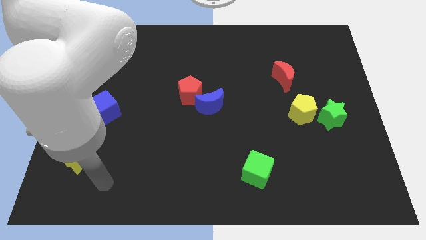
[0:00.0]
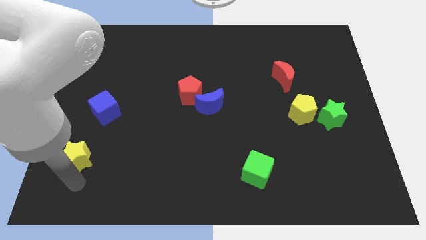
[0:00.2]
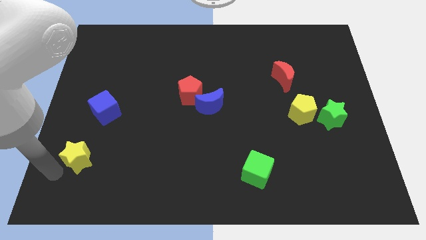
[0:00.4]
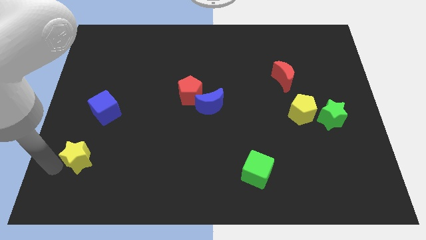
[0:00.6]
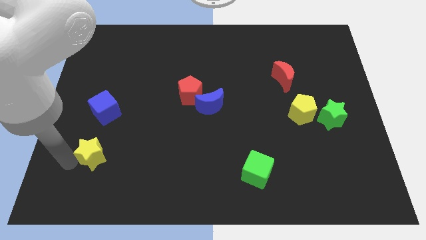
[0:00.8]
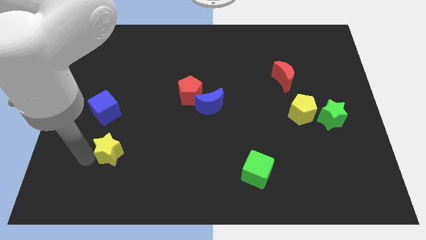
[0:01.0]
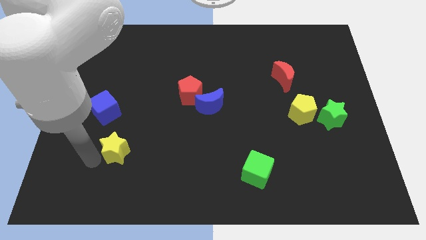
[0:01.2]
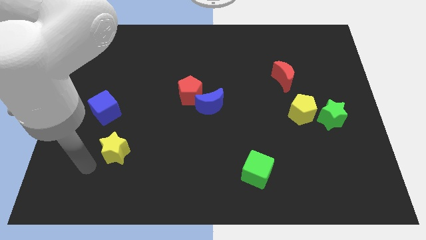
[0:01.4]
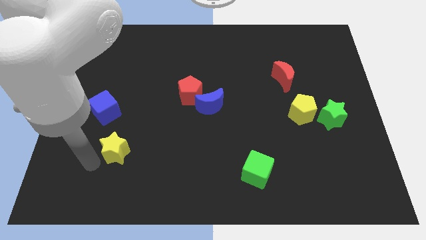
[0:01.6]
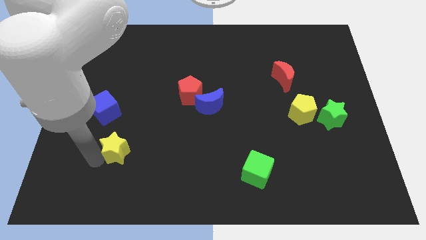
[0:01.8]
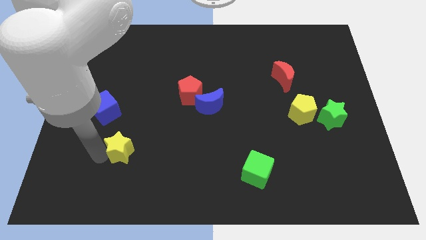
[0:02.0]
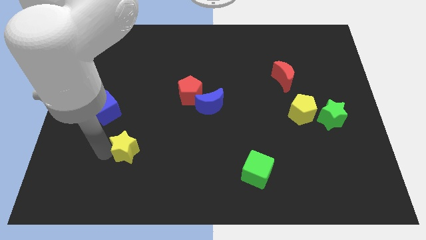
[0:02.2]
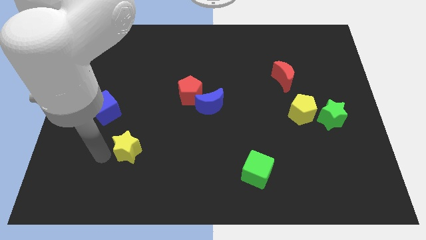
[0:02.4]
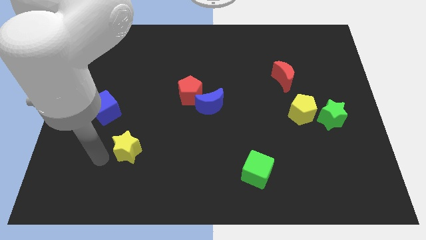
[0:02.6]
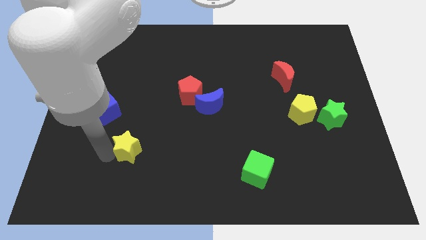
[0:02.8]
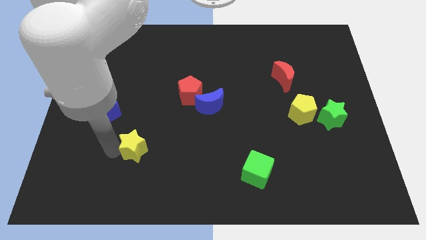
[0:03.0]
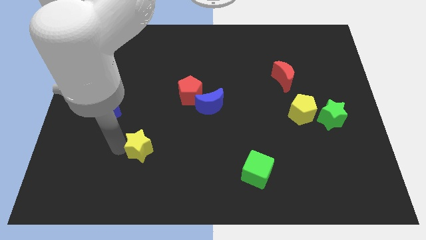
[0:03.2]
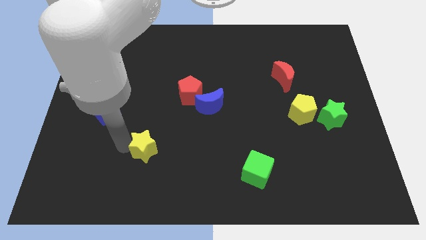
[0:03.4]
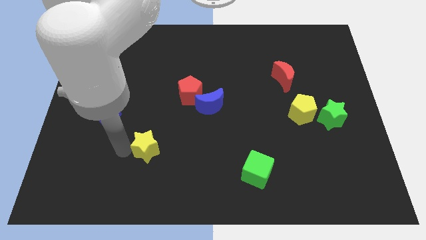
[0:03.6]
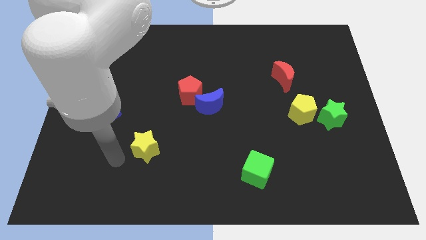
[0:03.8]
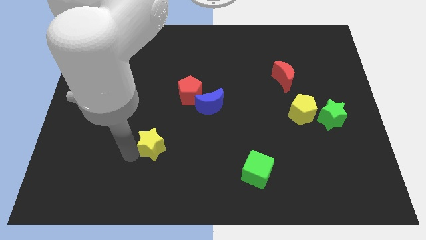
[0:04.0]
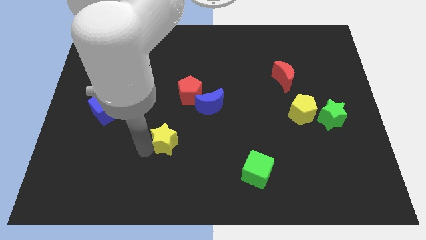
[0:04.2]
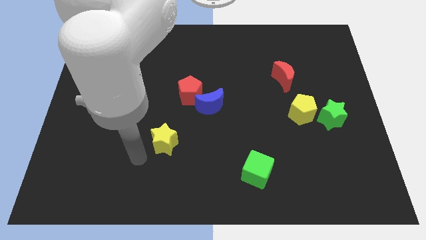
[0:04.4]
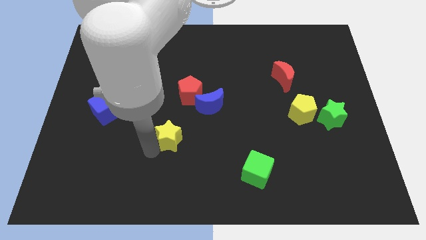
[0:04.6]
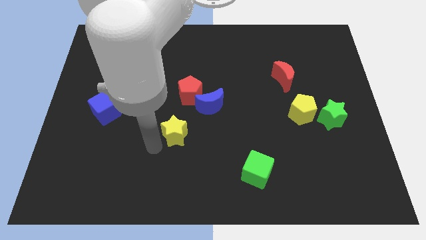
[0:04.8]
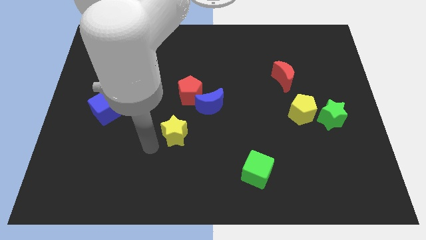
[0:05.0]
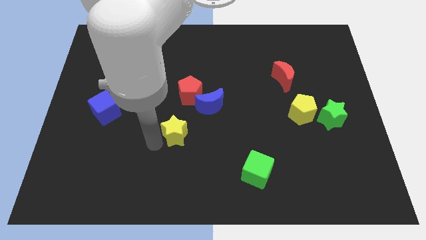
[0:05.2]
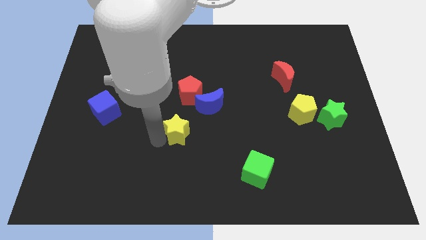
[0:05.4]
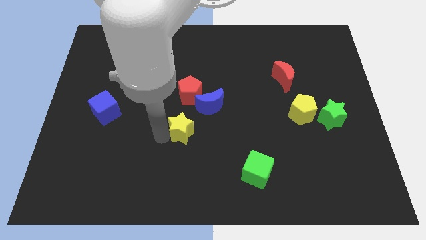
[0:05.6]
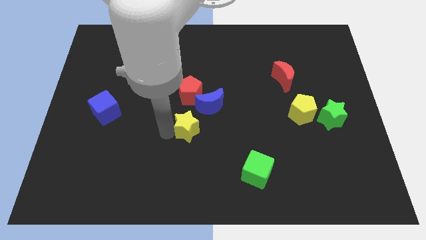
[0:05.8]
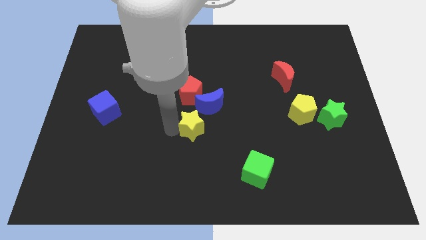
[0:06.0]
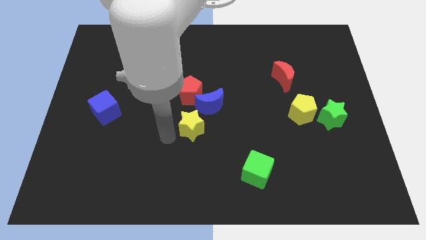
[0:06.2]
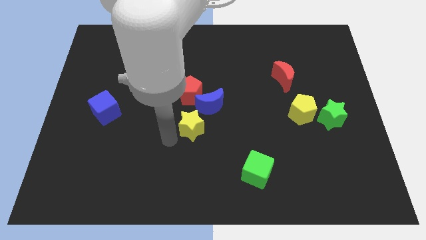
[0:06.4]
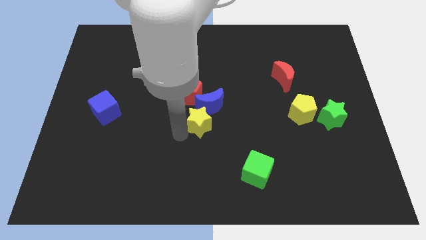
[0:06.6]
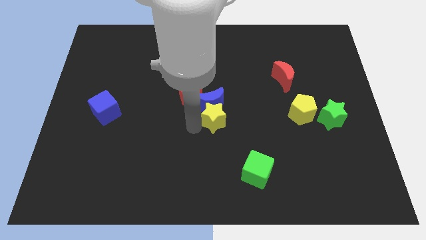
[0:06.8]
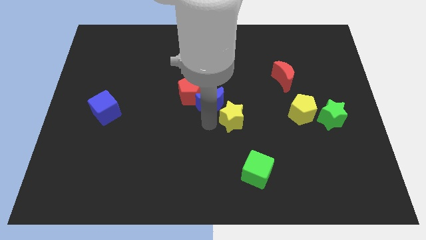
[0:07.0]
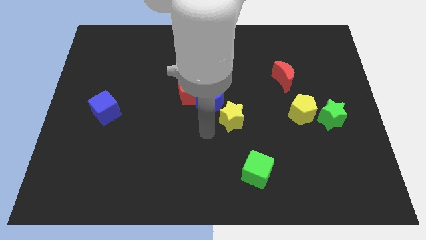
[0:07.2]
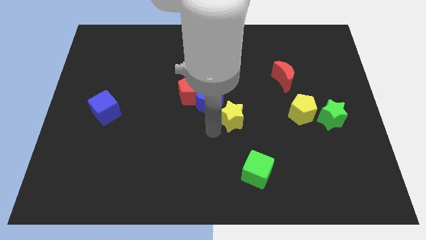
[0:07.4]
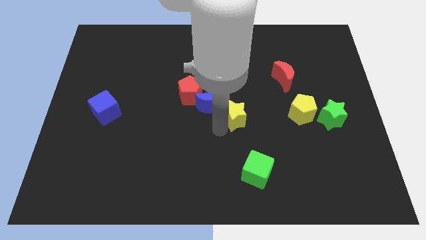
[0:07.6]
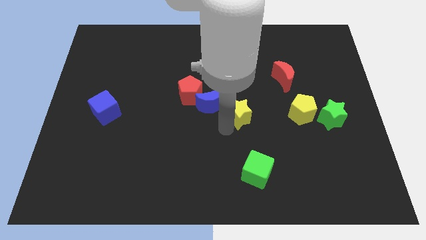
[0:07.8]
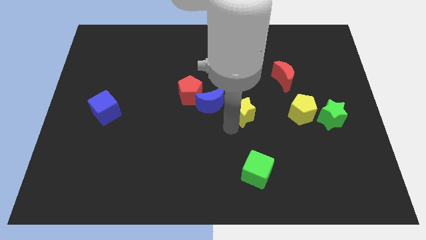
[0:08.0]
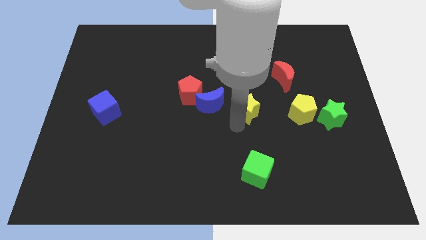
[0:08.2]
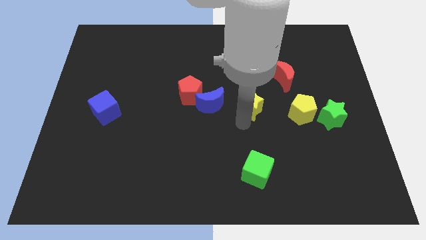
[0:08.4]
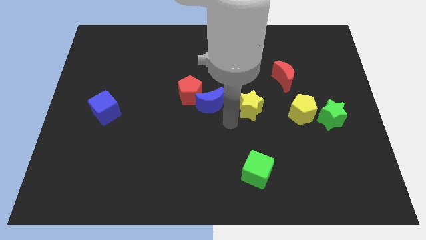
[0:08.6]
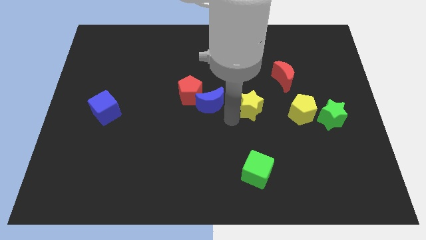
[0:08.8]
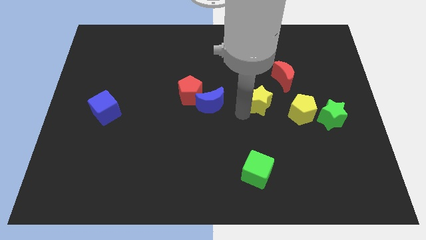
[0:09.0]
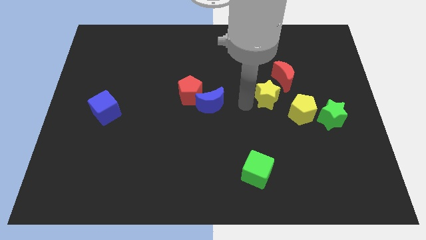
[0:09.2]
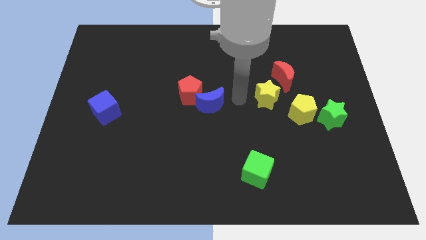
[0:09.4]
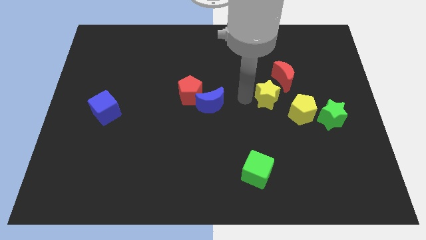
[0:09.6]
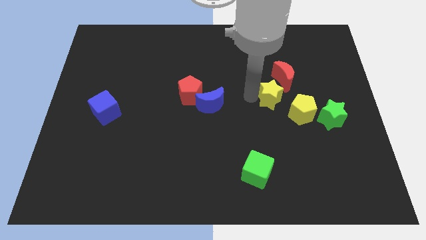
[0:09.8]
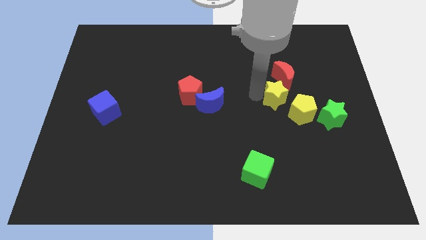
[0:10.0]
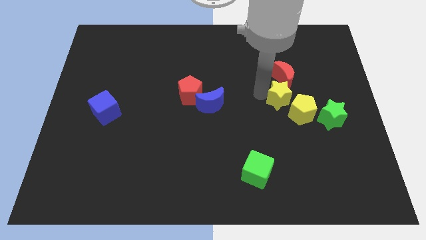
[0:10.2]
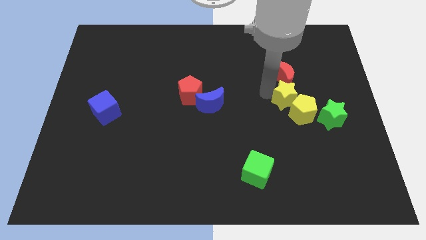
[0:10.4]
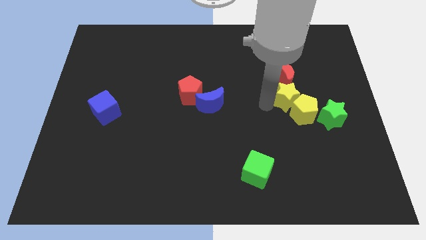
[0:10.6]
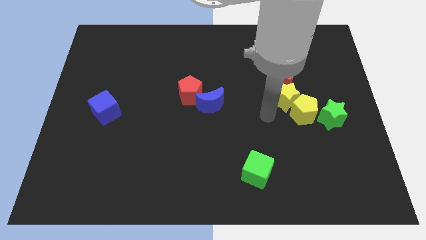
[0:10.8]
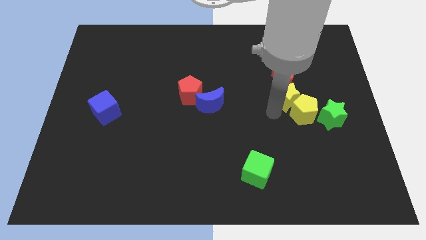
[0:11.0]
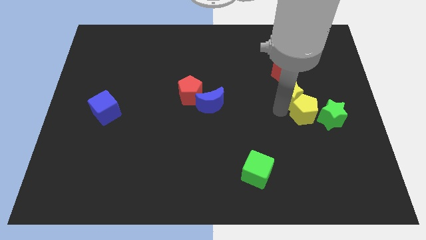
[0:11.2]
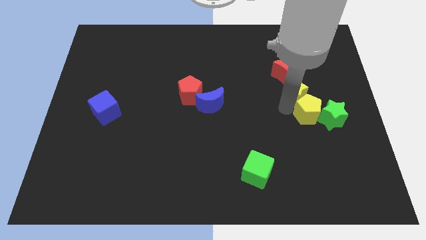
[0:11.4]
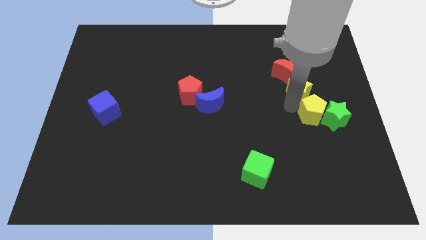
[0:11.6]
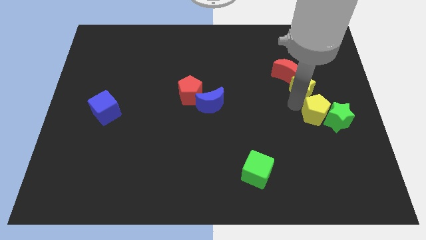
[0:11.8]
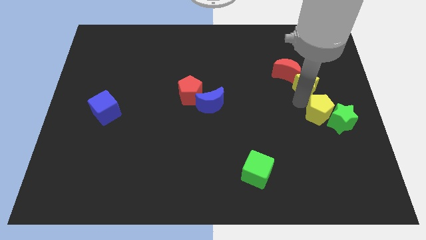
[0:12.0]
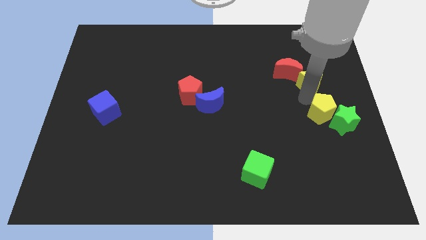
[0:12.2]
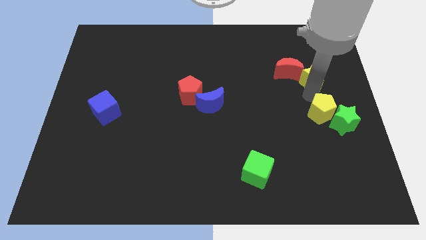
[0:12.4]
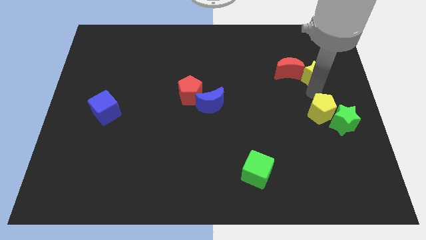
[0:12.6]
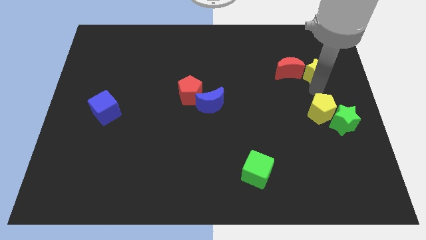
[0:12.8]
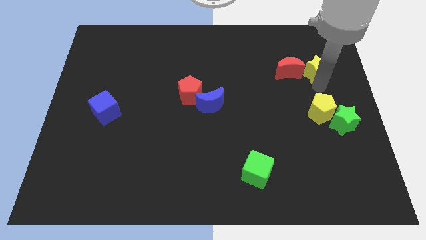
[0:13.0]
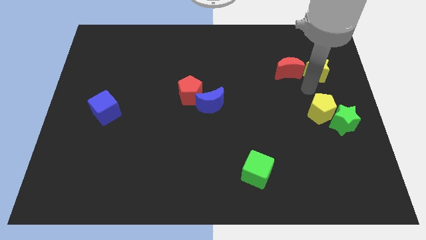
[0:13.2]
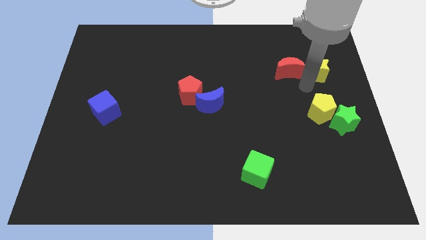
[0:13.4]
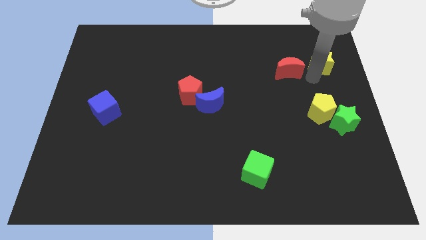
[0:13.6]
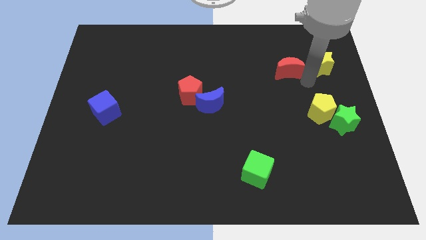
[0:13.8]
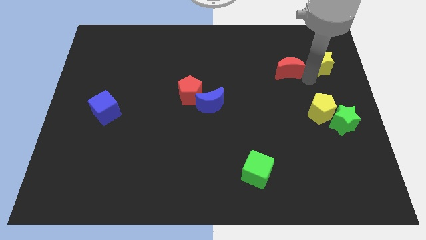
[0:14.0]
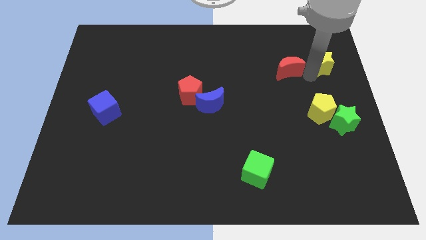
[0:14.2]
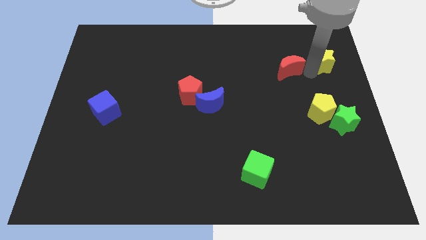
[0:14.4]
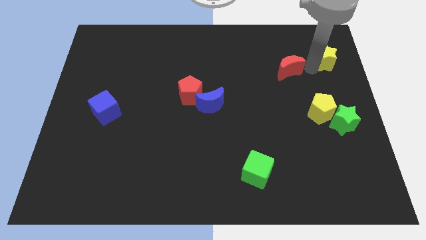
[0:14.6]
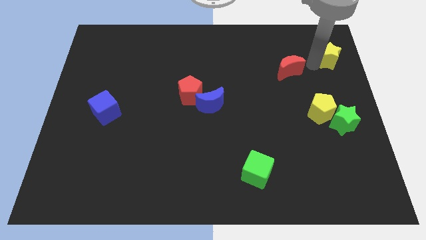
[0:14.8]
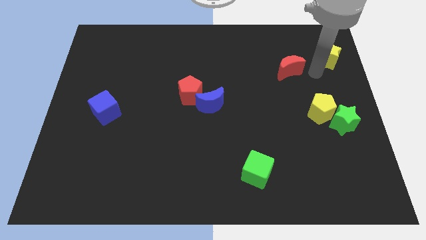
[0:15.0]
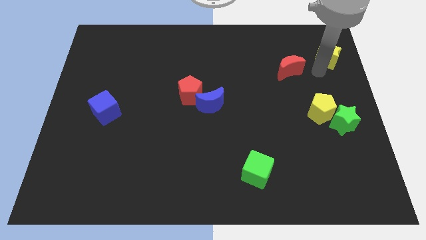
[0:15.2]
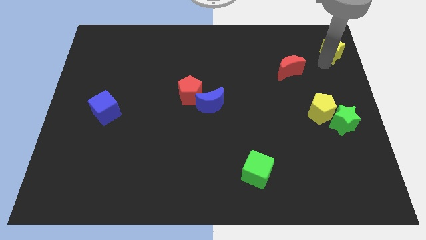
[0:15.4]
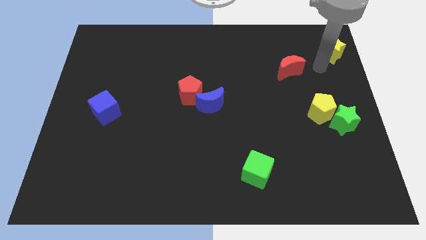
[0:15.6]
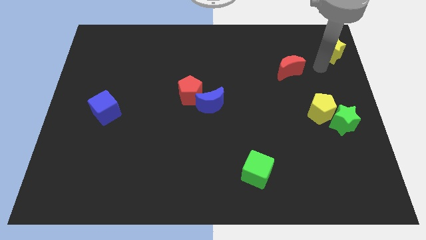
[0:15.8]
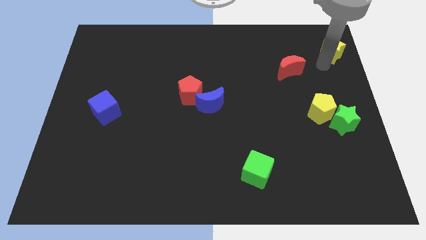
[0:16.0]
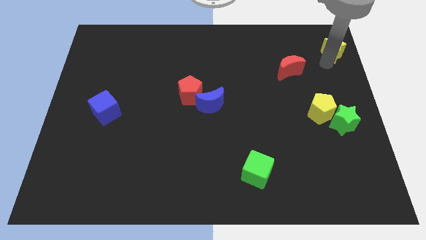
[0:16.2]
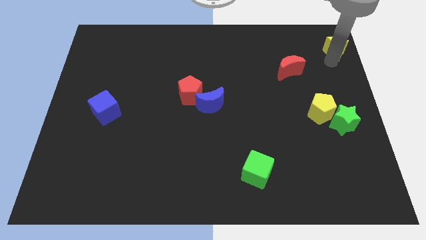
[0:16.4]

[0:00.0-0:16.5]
put the yellow star to the upper right corner
